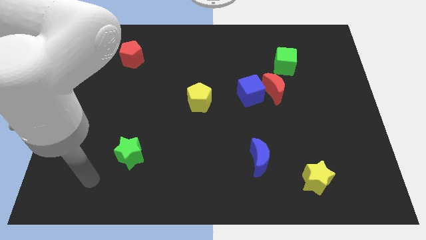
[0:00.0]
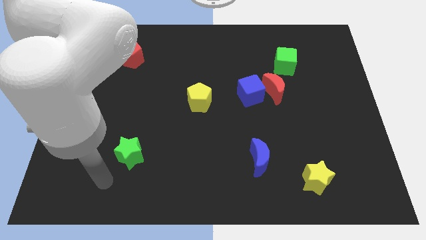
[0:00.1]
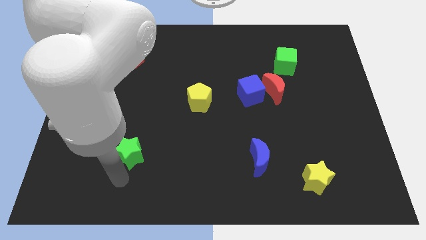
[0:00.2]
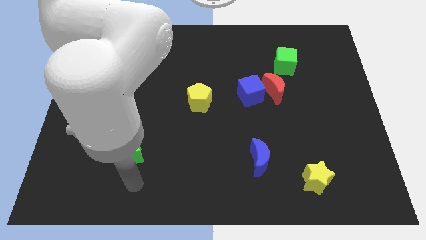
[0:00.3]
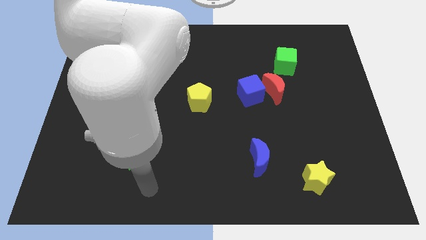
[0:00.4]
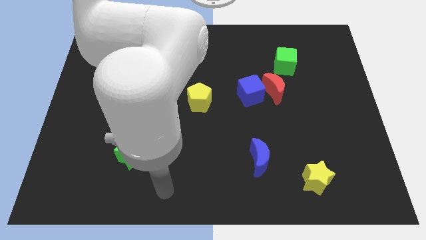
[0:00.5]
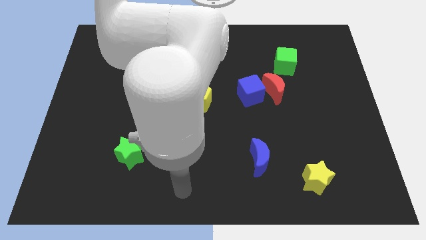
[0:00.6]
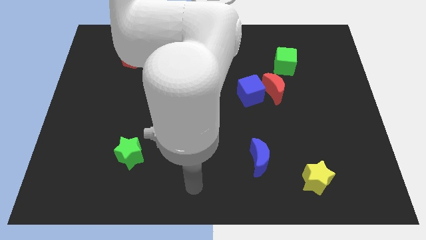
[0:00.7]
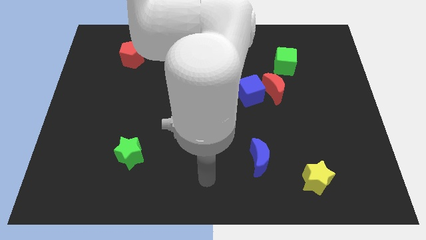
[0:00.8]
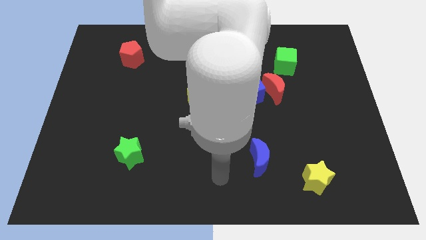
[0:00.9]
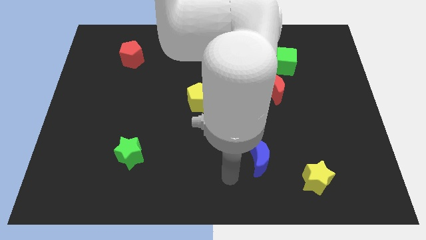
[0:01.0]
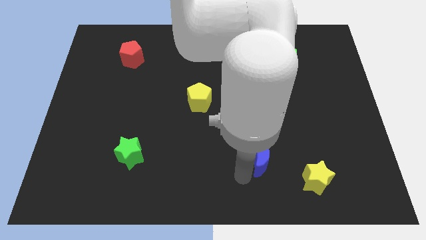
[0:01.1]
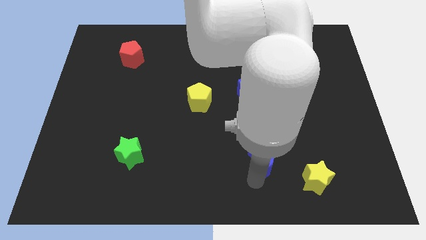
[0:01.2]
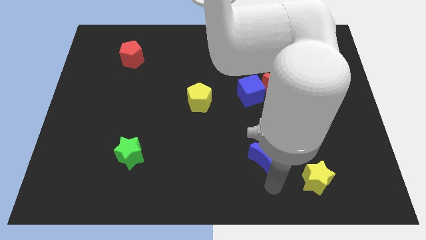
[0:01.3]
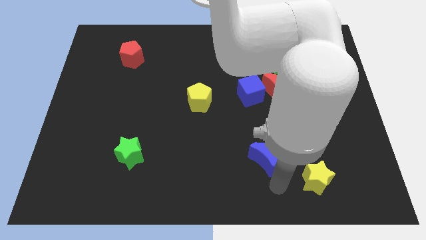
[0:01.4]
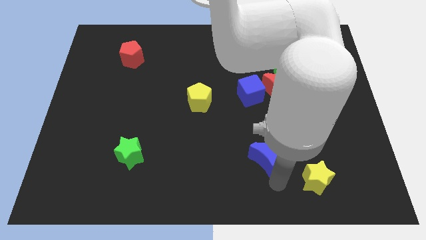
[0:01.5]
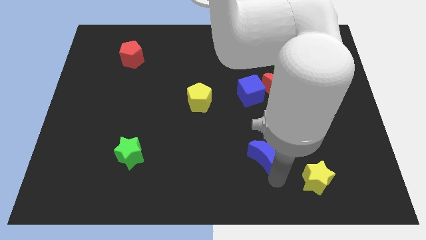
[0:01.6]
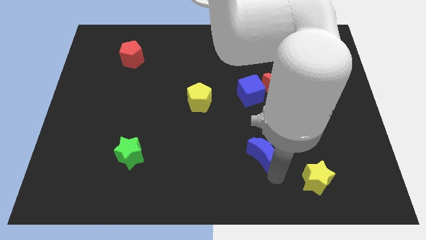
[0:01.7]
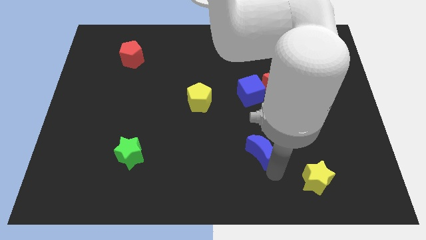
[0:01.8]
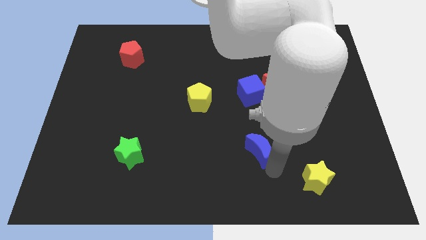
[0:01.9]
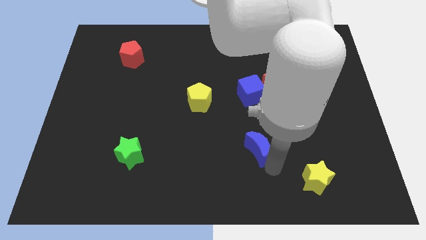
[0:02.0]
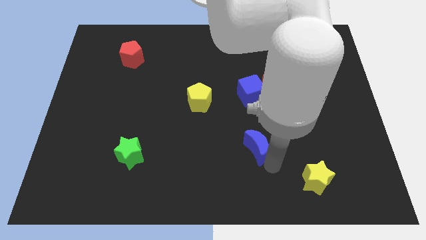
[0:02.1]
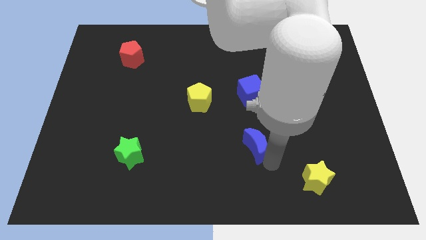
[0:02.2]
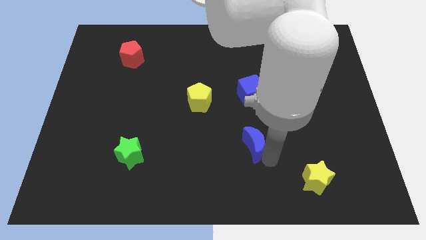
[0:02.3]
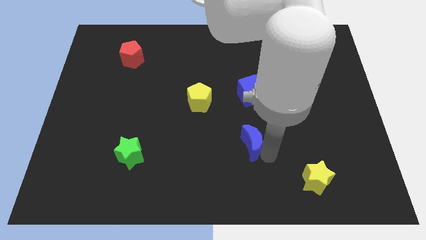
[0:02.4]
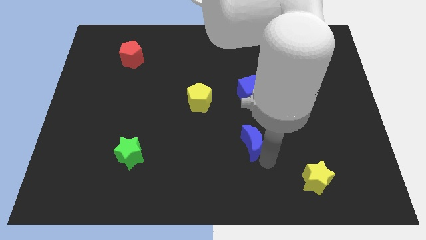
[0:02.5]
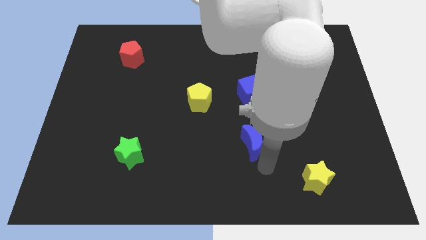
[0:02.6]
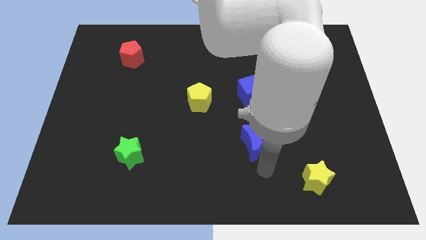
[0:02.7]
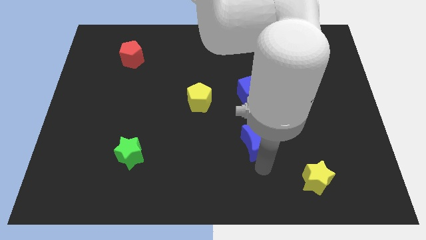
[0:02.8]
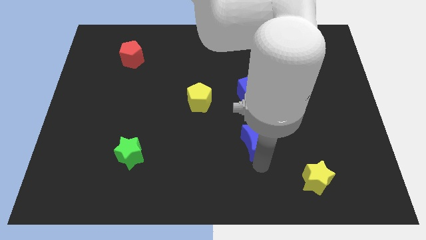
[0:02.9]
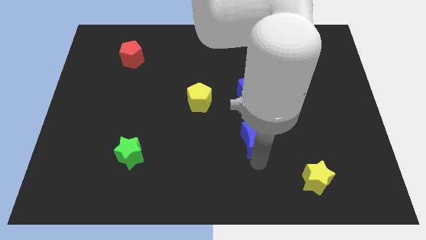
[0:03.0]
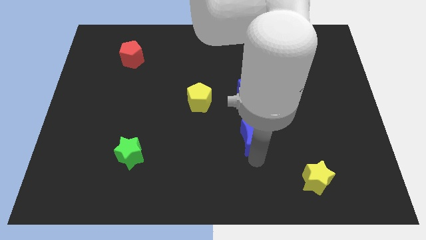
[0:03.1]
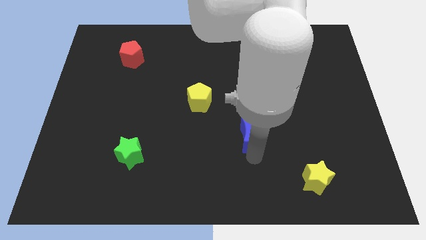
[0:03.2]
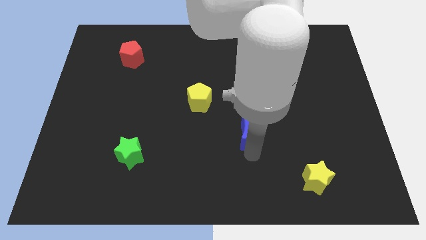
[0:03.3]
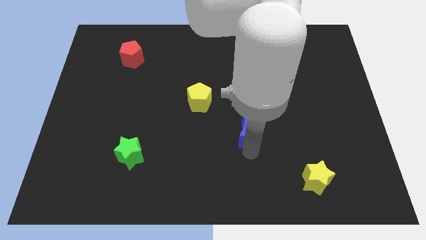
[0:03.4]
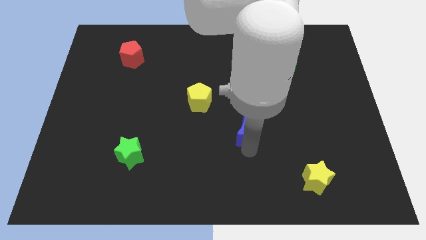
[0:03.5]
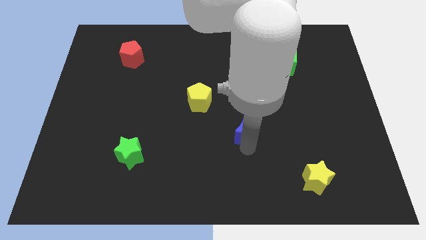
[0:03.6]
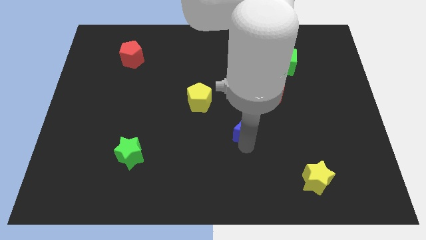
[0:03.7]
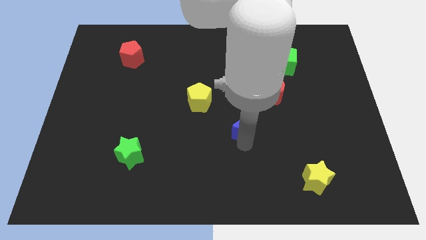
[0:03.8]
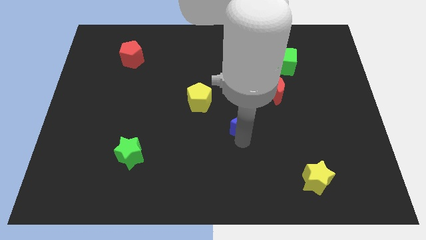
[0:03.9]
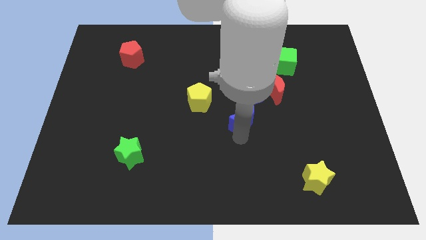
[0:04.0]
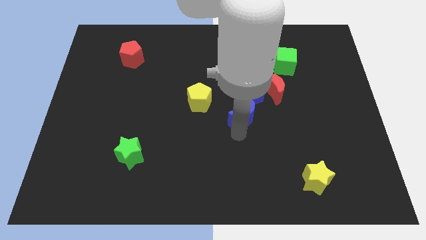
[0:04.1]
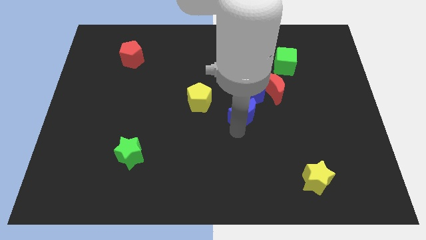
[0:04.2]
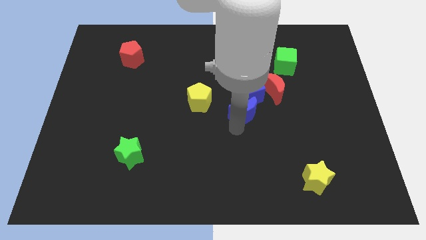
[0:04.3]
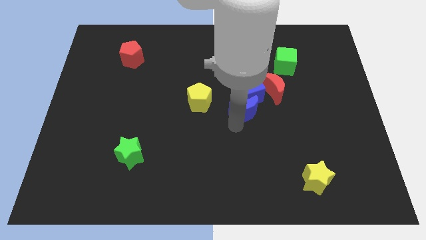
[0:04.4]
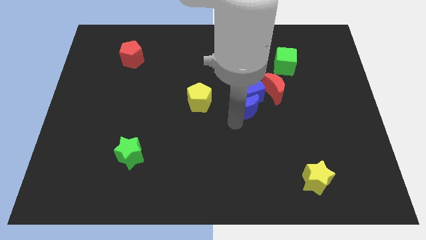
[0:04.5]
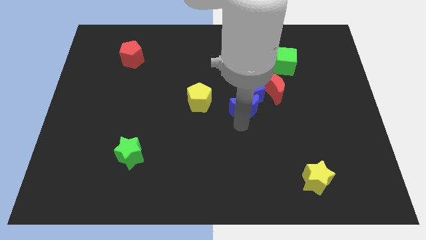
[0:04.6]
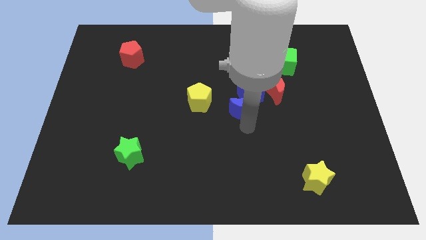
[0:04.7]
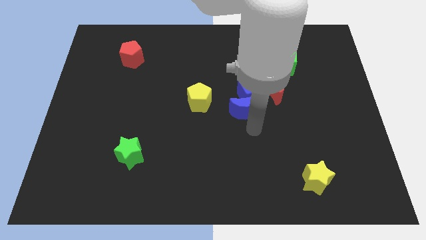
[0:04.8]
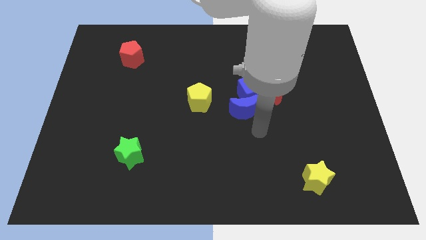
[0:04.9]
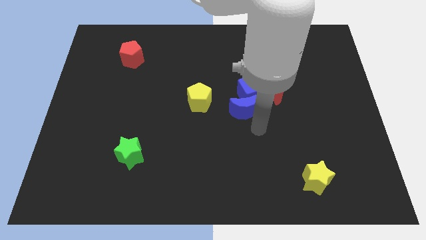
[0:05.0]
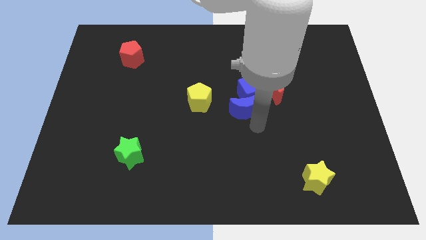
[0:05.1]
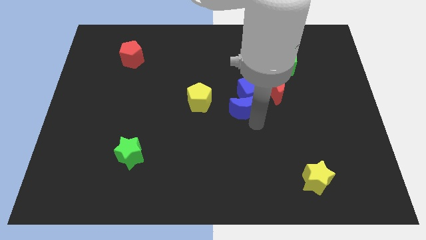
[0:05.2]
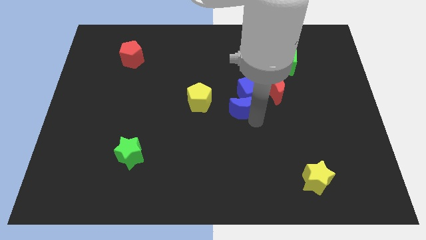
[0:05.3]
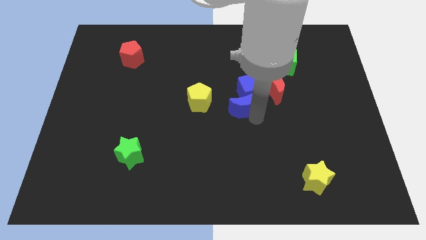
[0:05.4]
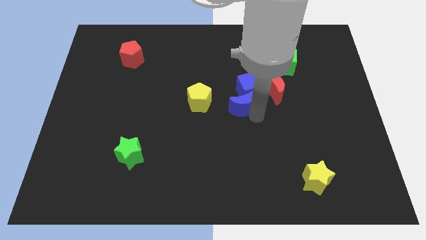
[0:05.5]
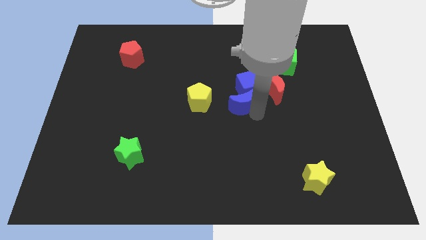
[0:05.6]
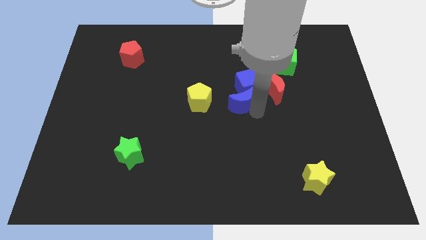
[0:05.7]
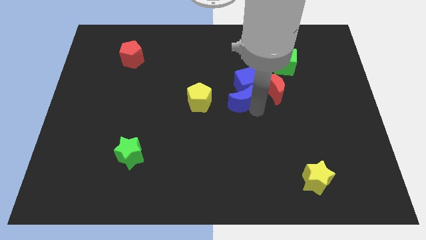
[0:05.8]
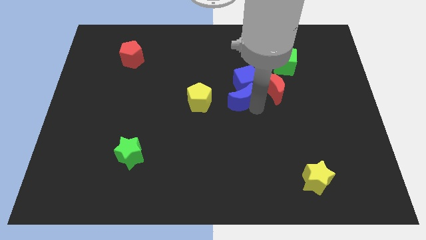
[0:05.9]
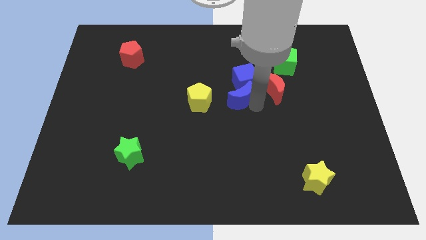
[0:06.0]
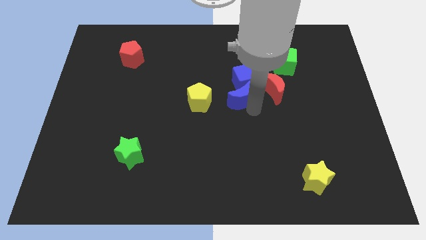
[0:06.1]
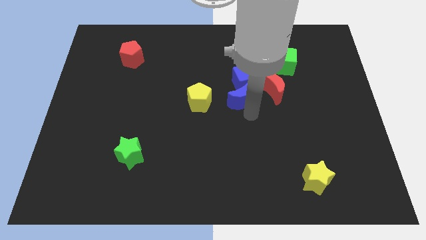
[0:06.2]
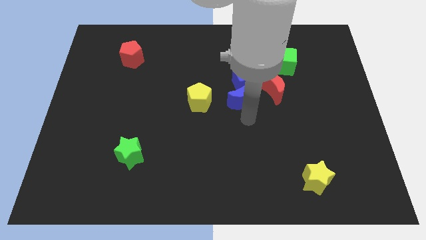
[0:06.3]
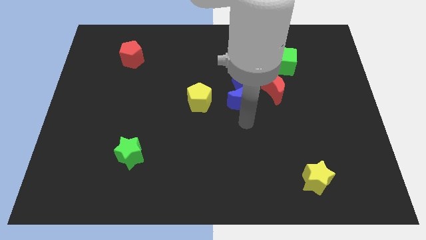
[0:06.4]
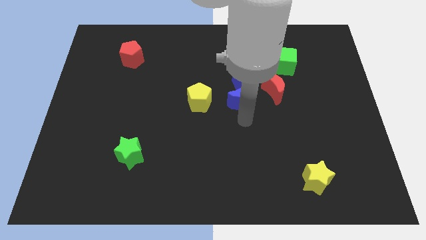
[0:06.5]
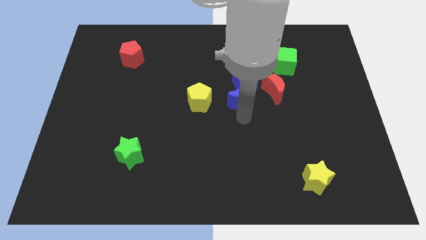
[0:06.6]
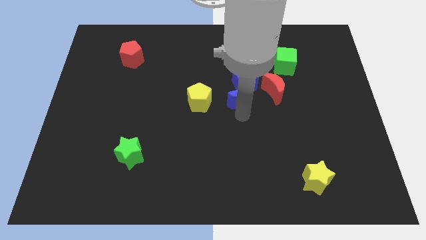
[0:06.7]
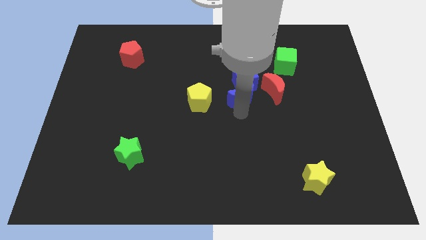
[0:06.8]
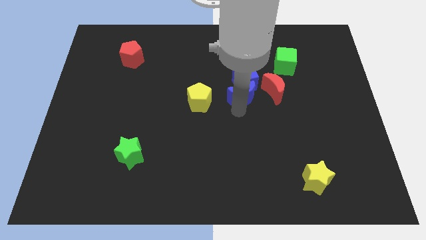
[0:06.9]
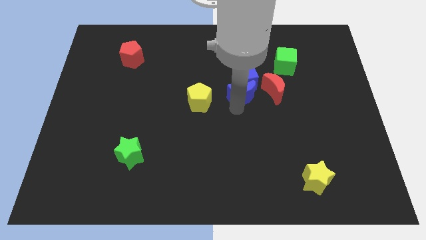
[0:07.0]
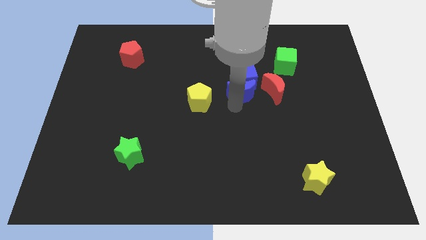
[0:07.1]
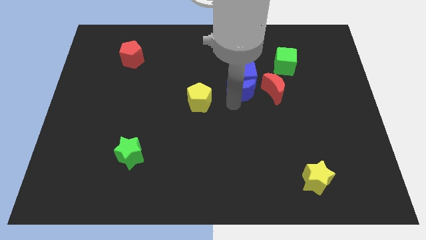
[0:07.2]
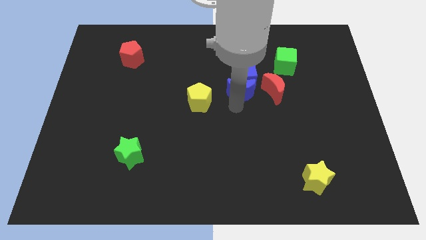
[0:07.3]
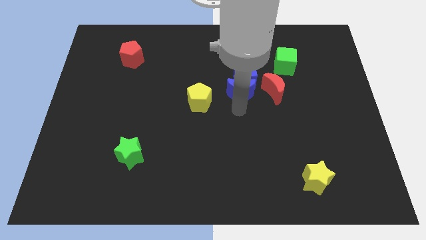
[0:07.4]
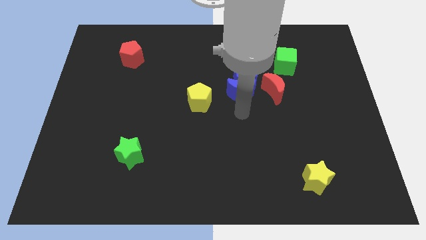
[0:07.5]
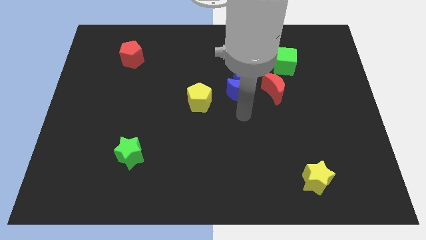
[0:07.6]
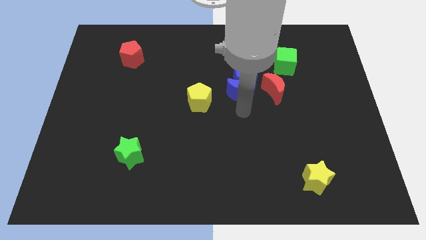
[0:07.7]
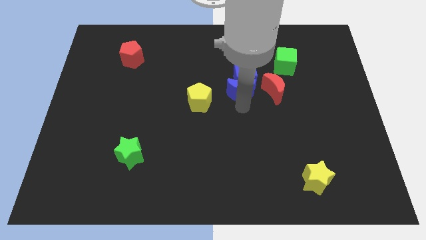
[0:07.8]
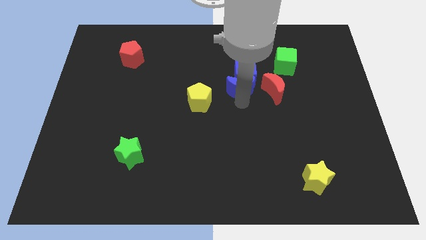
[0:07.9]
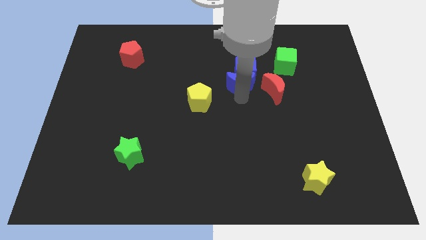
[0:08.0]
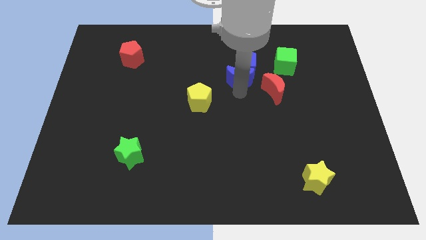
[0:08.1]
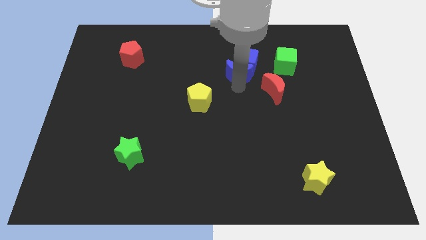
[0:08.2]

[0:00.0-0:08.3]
slide the blue moon to the left of the green cube
